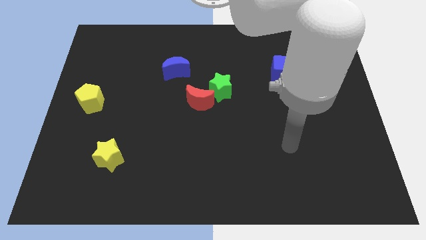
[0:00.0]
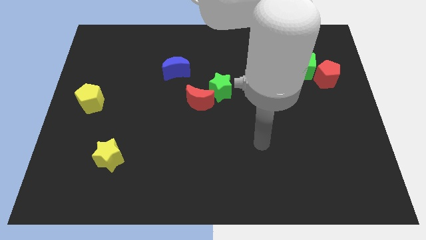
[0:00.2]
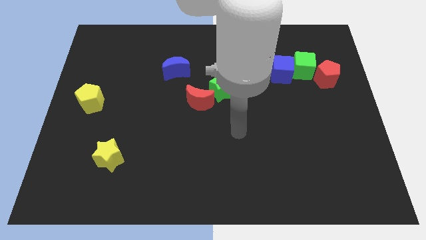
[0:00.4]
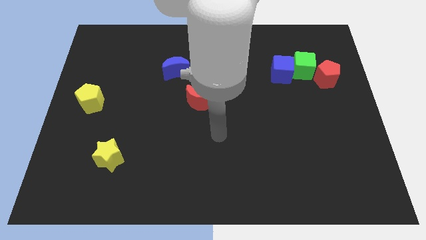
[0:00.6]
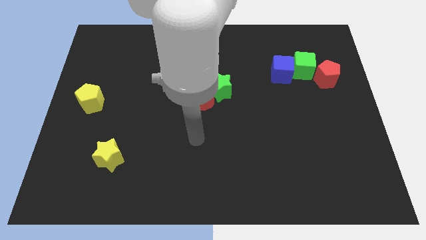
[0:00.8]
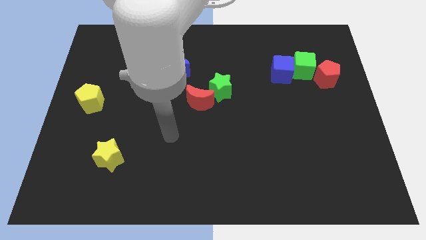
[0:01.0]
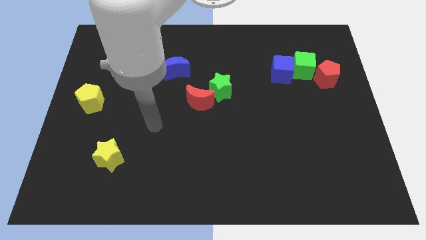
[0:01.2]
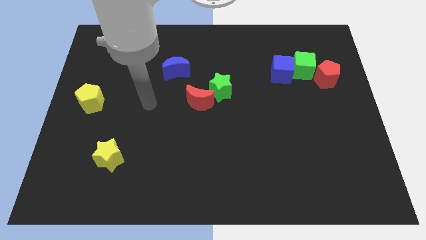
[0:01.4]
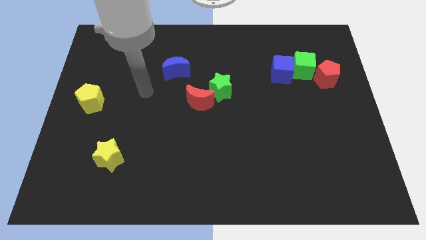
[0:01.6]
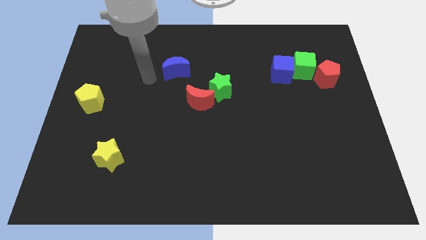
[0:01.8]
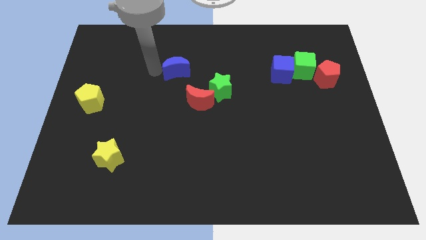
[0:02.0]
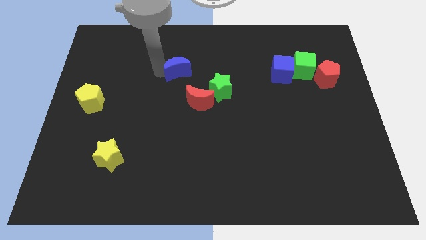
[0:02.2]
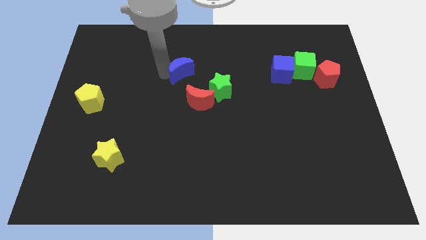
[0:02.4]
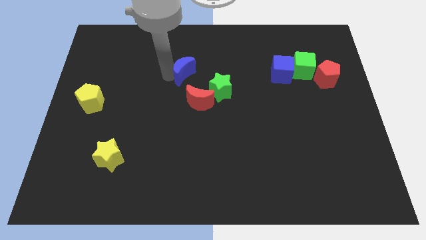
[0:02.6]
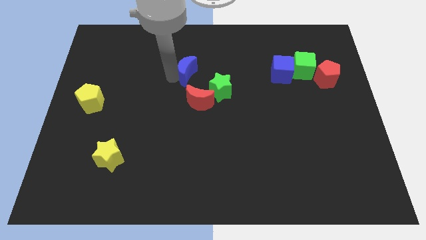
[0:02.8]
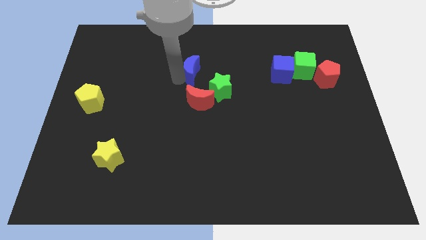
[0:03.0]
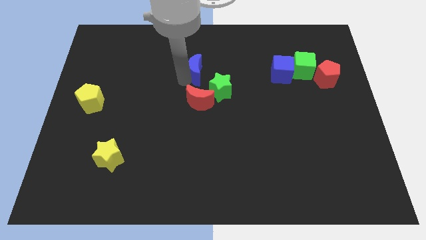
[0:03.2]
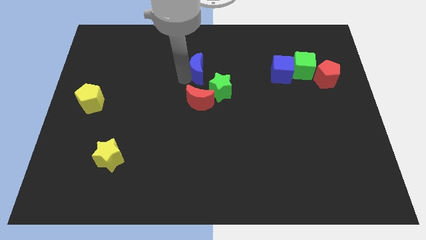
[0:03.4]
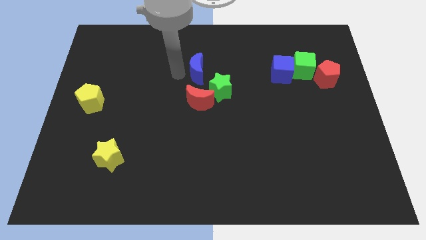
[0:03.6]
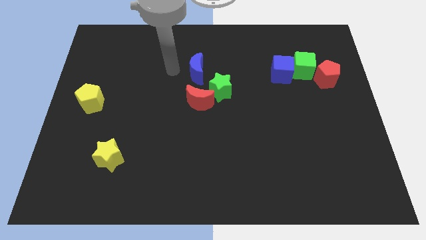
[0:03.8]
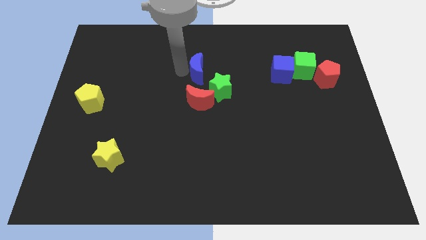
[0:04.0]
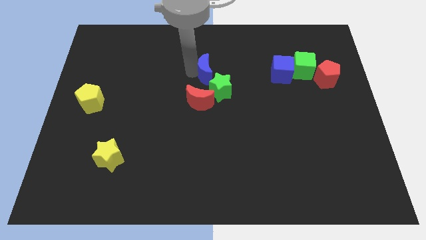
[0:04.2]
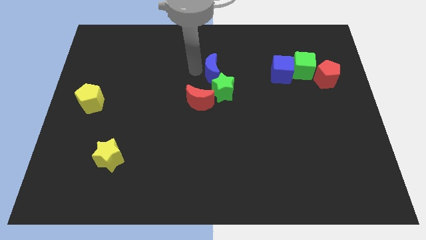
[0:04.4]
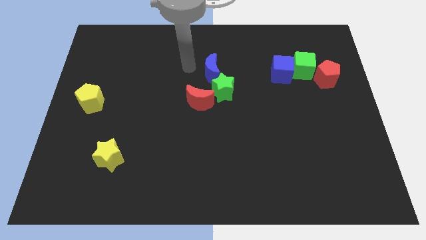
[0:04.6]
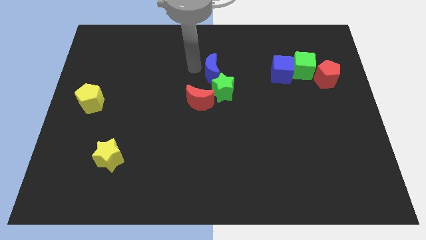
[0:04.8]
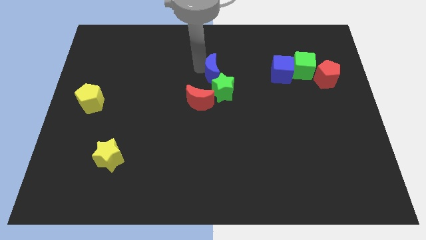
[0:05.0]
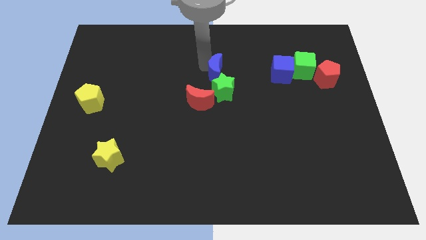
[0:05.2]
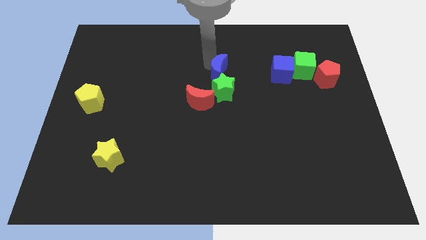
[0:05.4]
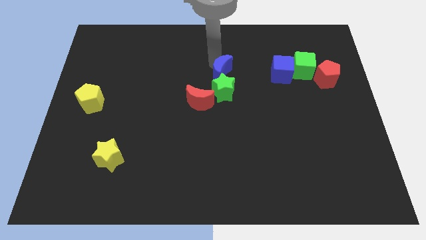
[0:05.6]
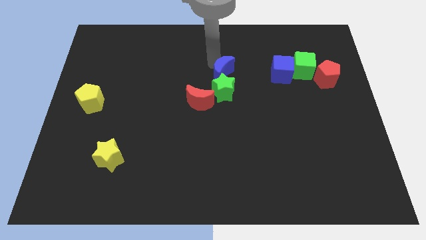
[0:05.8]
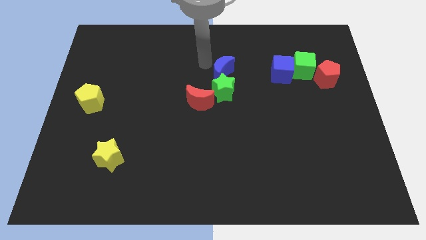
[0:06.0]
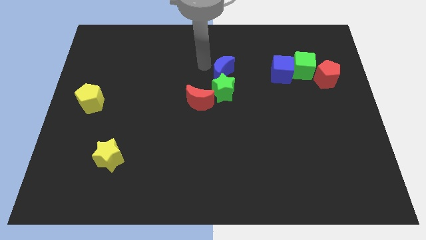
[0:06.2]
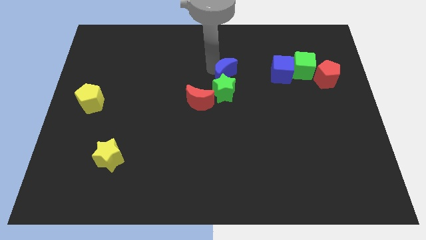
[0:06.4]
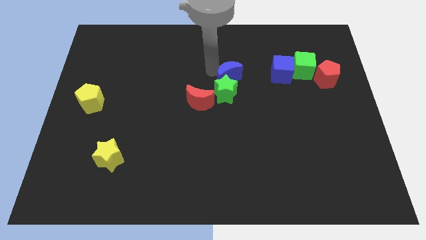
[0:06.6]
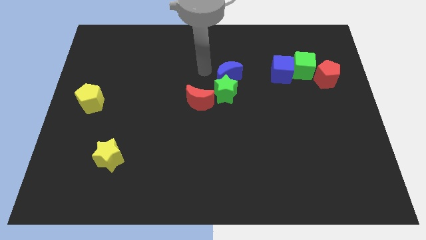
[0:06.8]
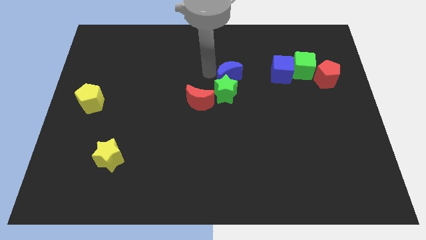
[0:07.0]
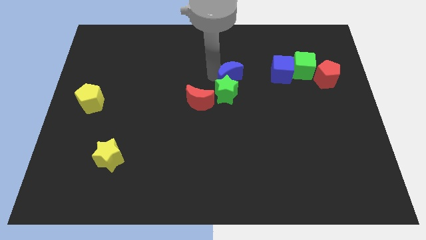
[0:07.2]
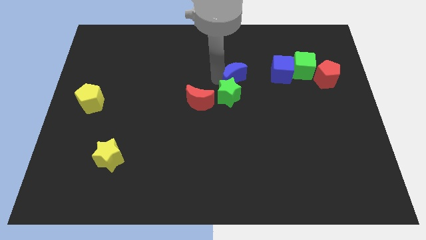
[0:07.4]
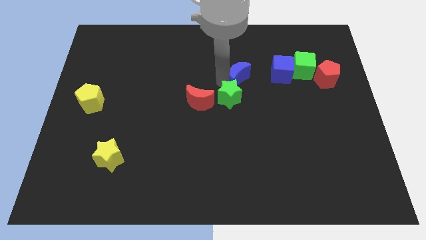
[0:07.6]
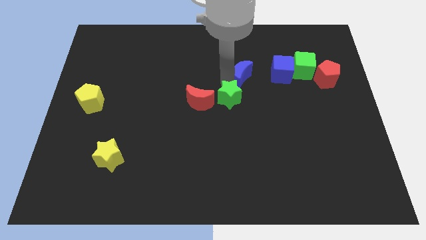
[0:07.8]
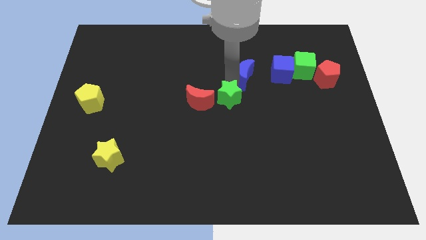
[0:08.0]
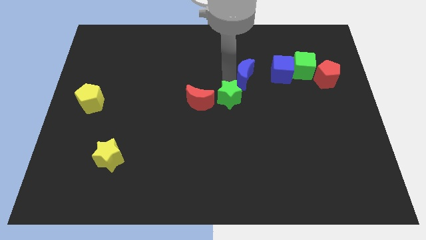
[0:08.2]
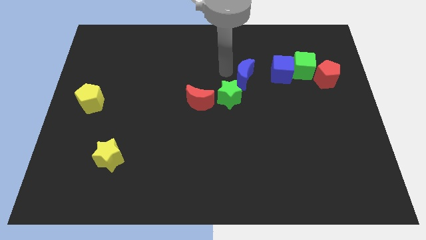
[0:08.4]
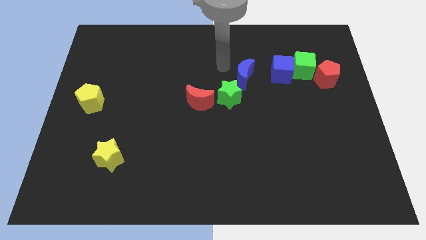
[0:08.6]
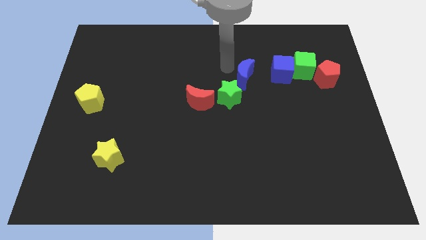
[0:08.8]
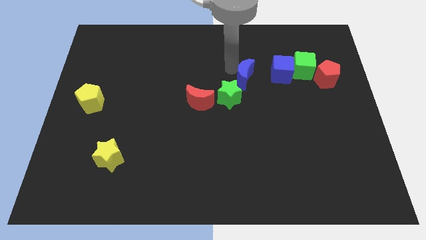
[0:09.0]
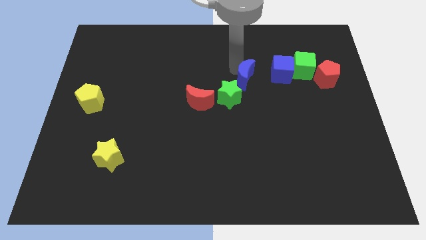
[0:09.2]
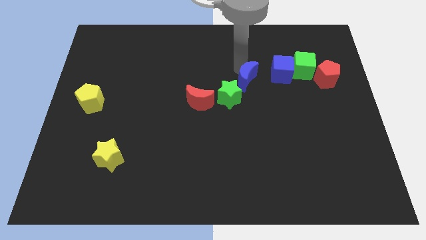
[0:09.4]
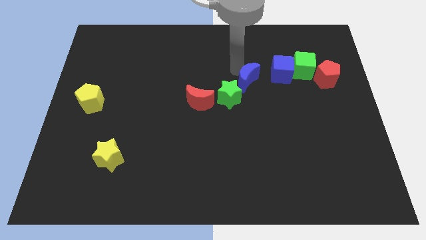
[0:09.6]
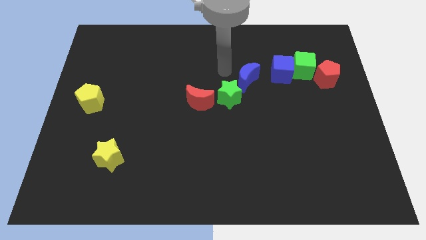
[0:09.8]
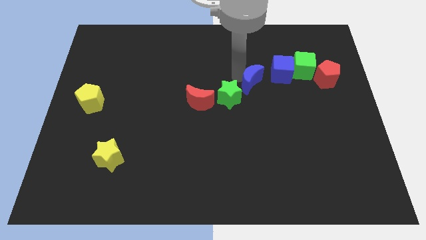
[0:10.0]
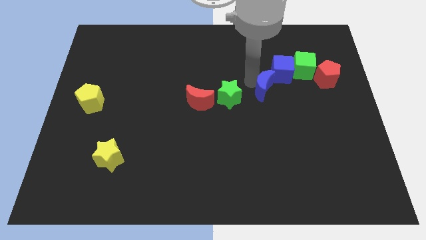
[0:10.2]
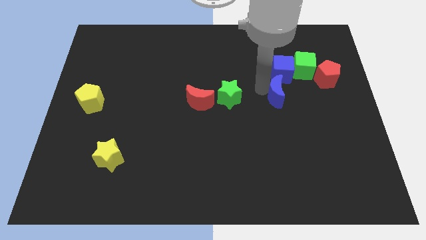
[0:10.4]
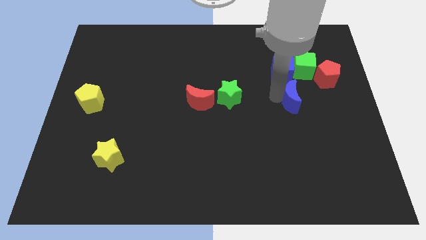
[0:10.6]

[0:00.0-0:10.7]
slide the blue moon to the bottom of the green cube

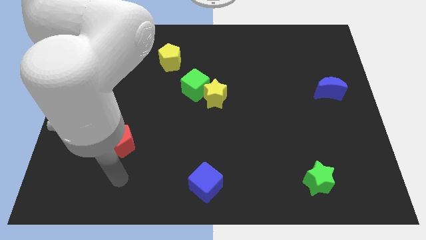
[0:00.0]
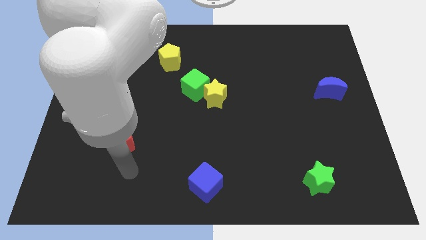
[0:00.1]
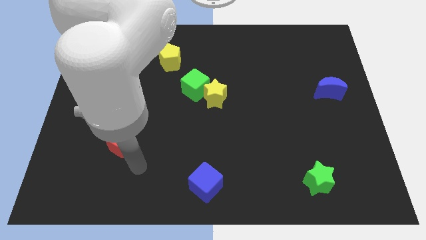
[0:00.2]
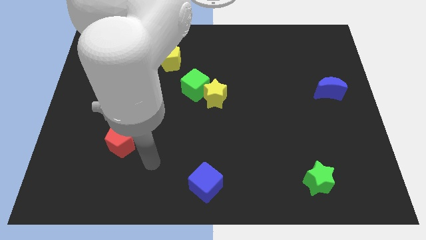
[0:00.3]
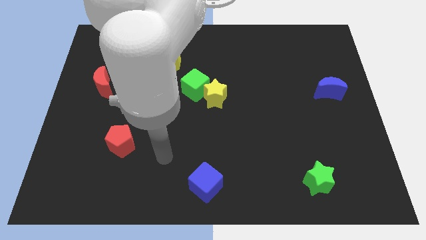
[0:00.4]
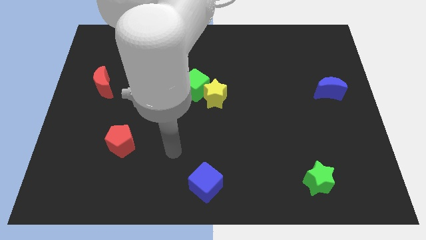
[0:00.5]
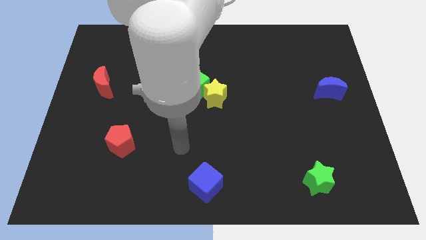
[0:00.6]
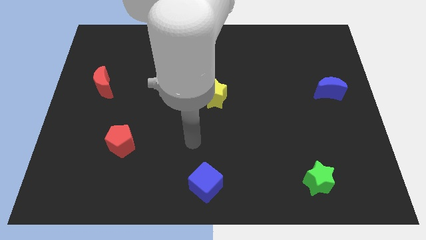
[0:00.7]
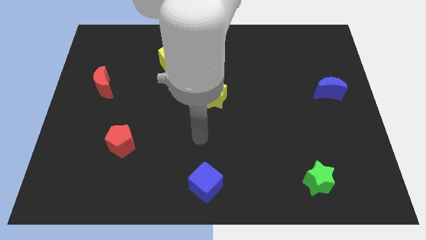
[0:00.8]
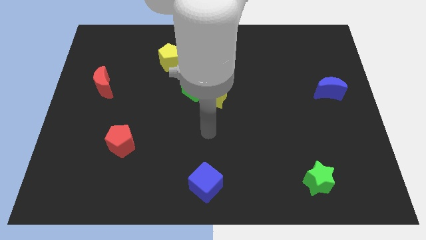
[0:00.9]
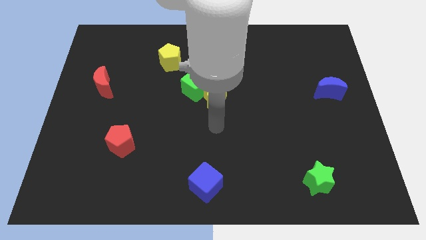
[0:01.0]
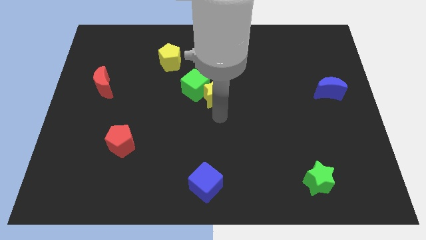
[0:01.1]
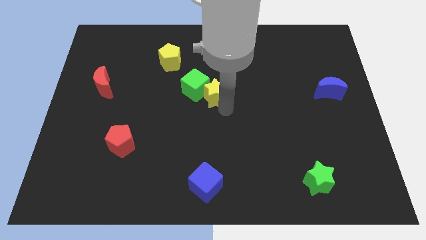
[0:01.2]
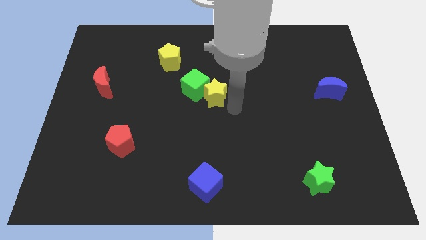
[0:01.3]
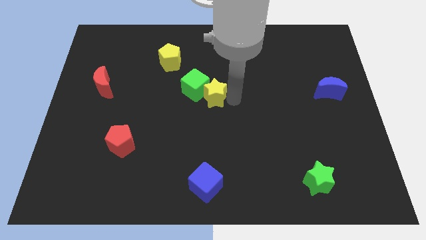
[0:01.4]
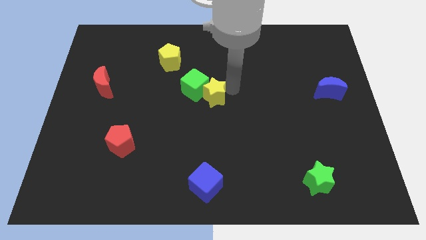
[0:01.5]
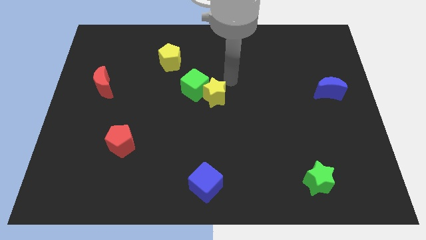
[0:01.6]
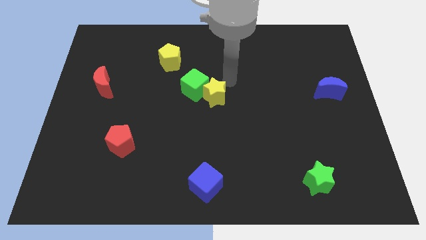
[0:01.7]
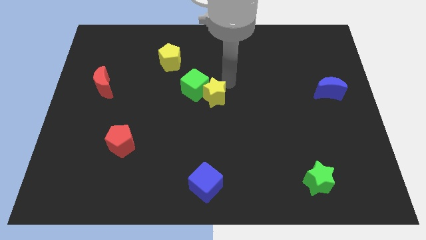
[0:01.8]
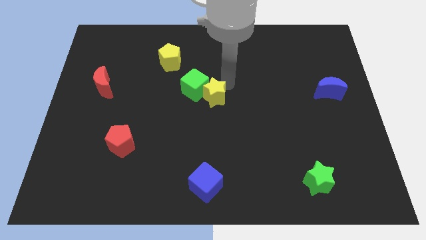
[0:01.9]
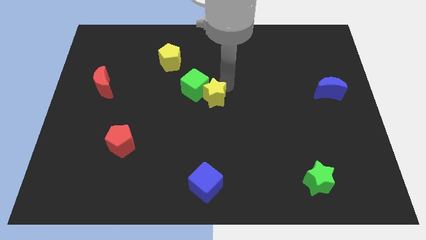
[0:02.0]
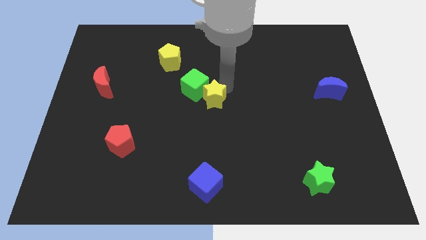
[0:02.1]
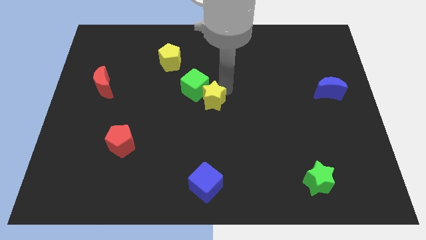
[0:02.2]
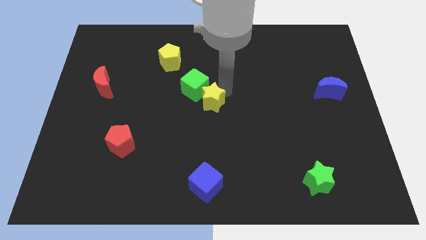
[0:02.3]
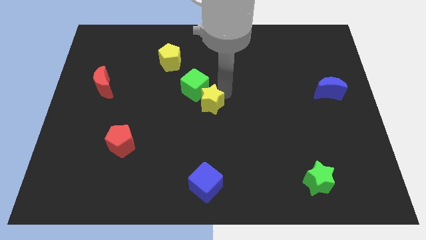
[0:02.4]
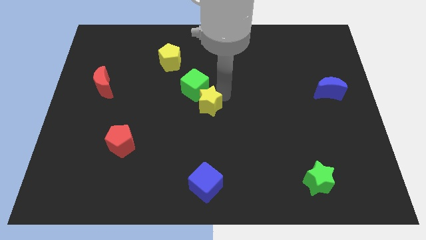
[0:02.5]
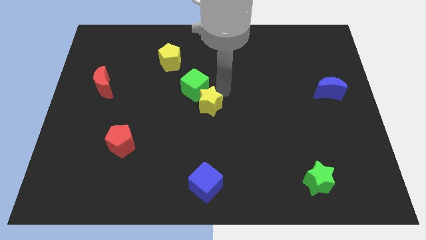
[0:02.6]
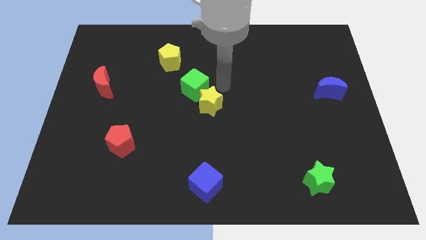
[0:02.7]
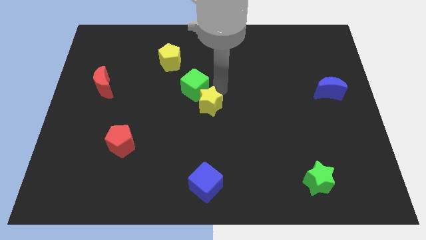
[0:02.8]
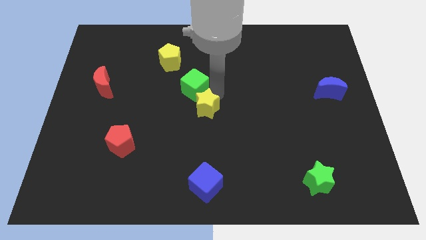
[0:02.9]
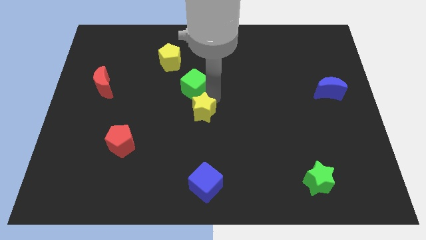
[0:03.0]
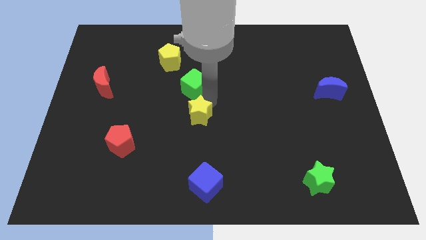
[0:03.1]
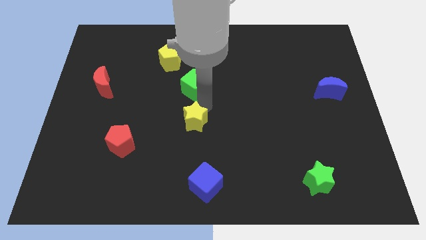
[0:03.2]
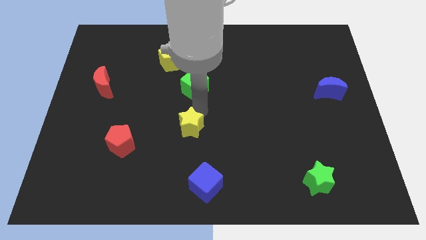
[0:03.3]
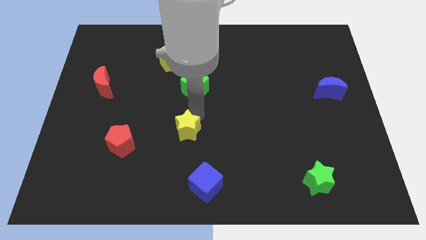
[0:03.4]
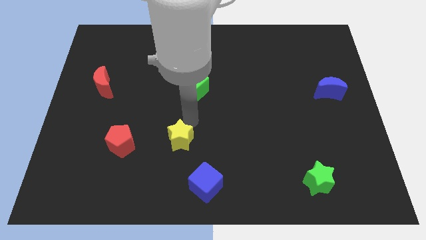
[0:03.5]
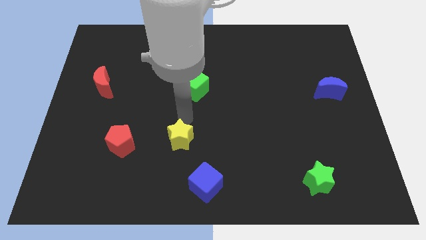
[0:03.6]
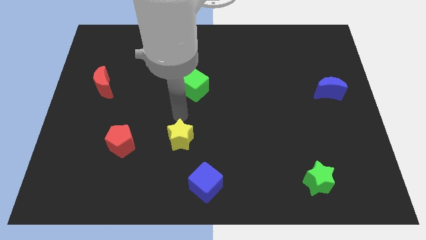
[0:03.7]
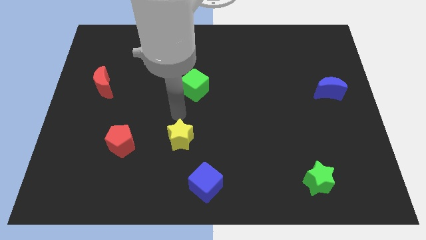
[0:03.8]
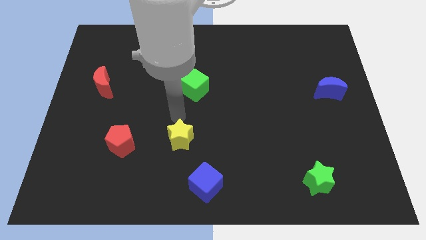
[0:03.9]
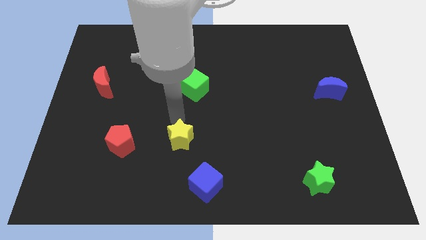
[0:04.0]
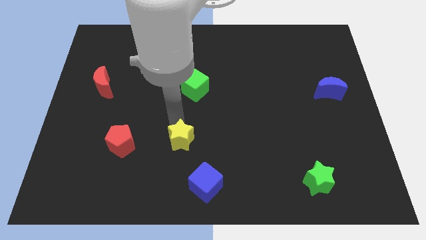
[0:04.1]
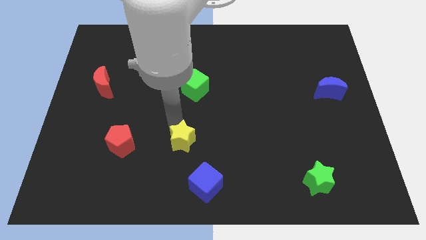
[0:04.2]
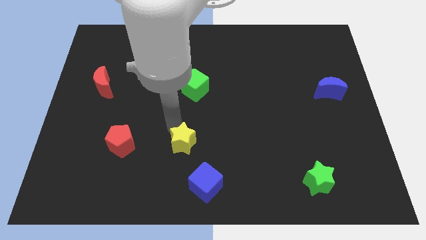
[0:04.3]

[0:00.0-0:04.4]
move the yellow star to the top left side of the blue cube
